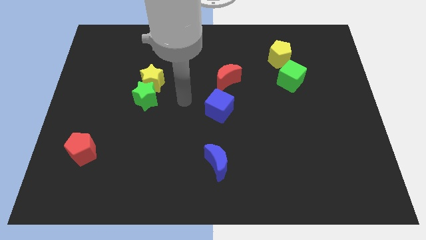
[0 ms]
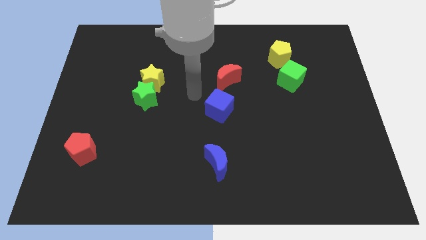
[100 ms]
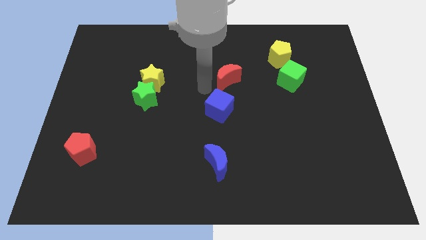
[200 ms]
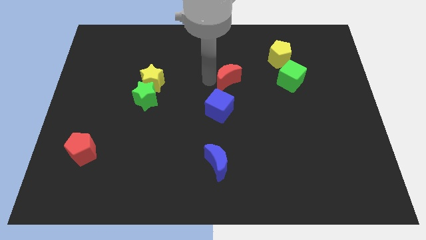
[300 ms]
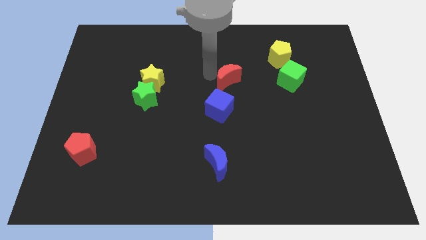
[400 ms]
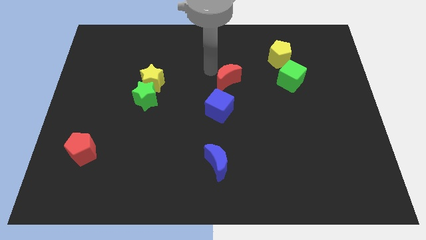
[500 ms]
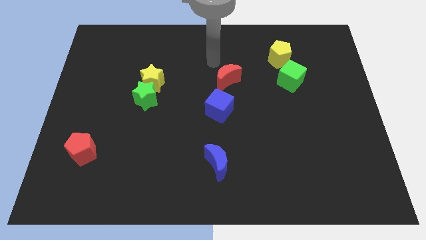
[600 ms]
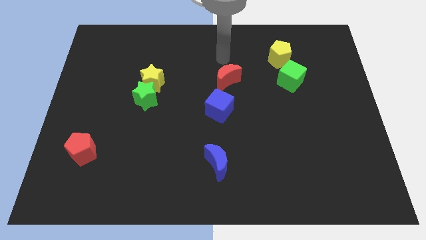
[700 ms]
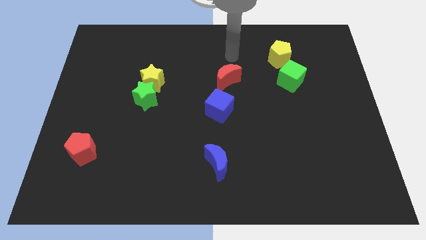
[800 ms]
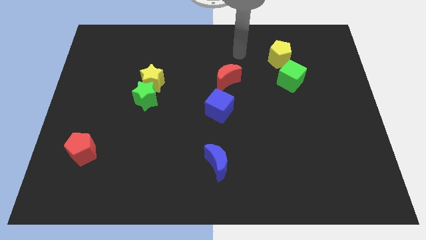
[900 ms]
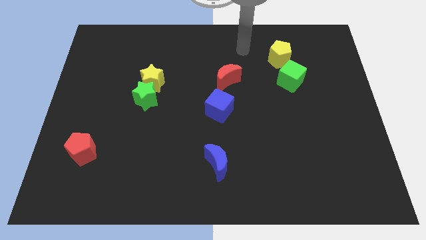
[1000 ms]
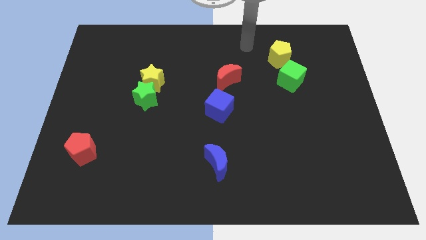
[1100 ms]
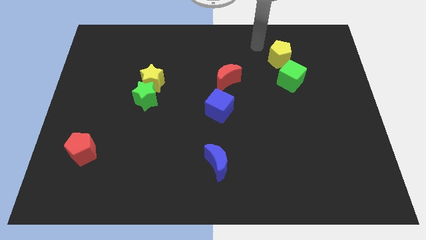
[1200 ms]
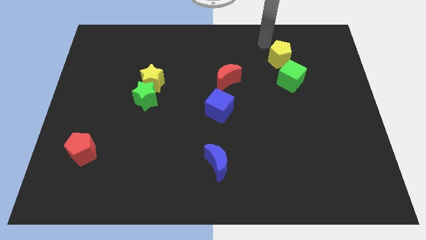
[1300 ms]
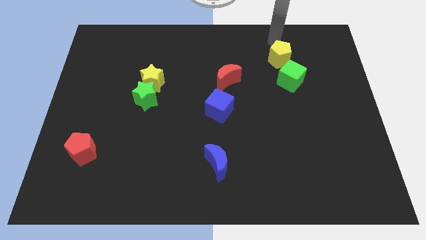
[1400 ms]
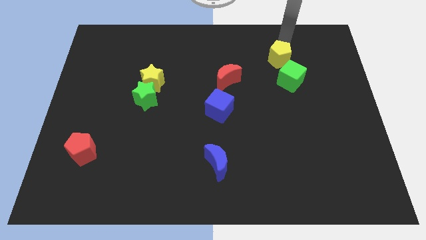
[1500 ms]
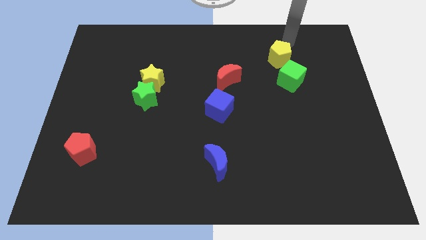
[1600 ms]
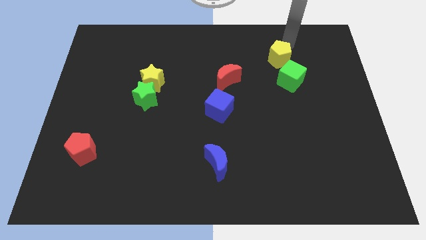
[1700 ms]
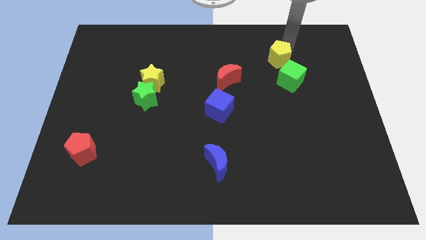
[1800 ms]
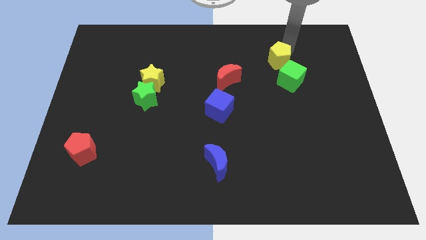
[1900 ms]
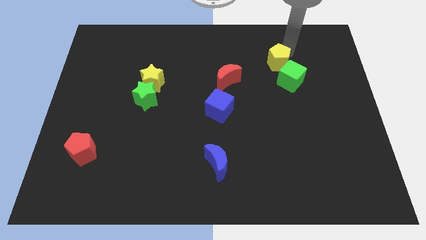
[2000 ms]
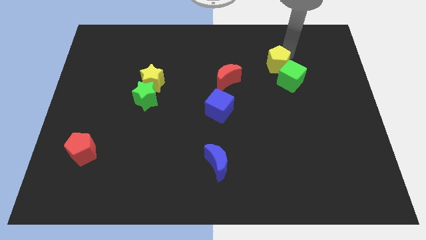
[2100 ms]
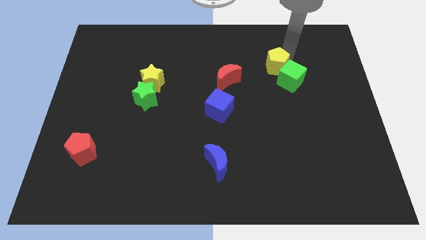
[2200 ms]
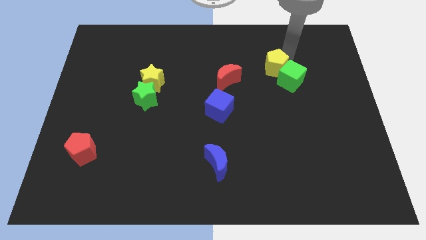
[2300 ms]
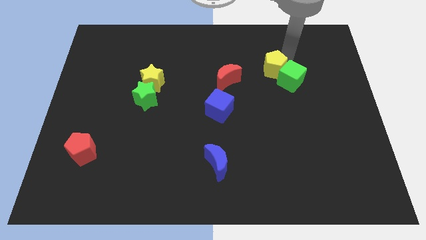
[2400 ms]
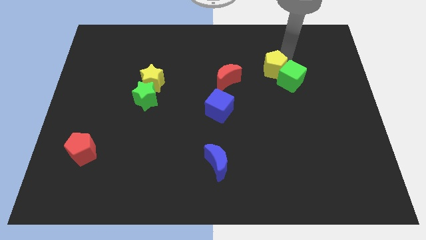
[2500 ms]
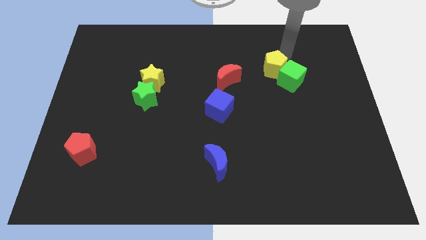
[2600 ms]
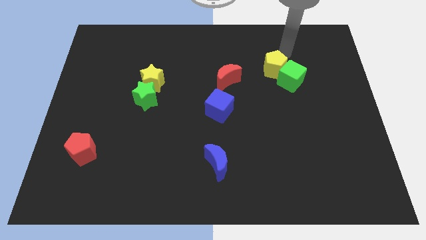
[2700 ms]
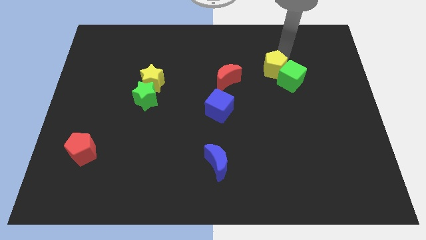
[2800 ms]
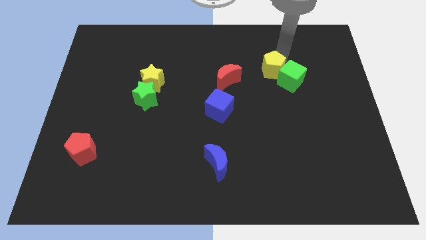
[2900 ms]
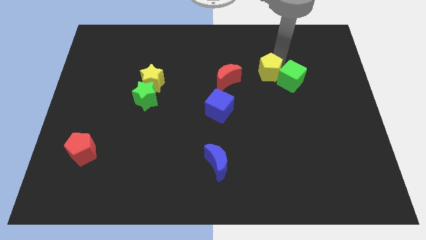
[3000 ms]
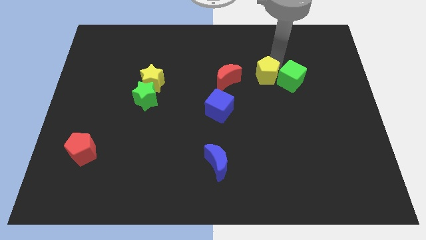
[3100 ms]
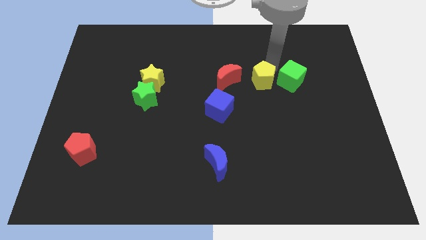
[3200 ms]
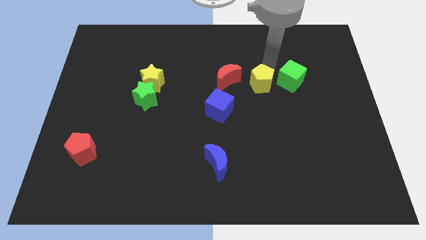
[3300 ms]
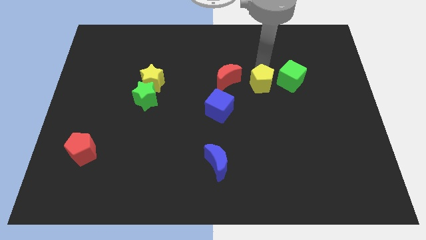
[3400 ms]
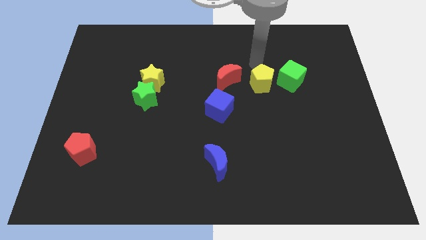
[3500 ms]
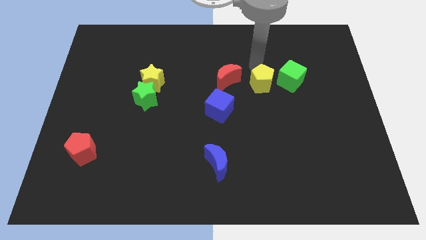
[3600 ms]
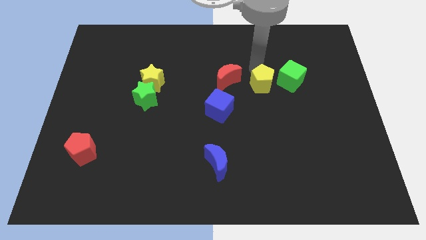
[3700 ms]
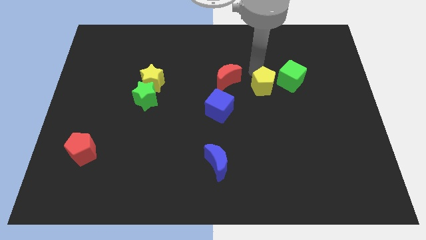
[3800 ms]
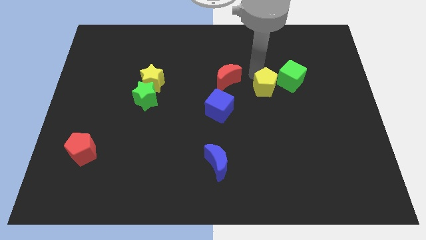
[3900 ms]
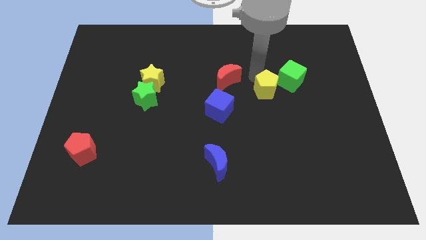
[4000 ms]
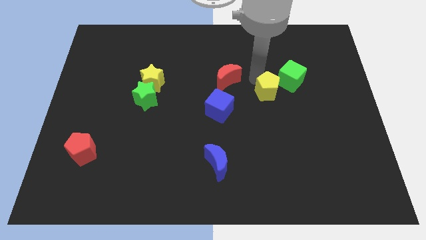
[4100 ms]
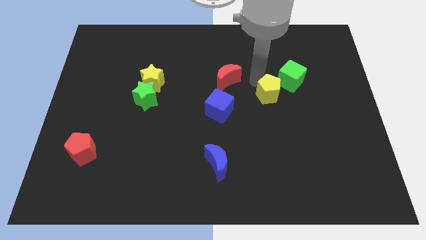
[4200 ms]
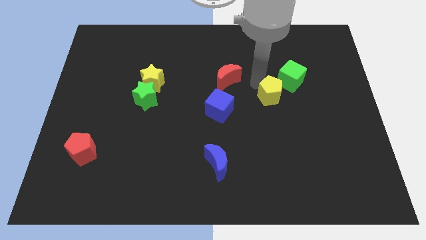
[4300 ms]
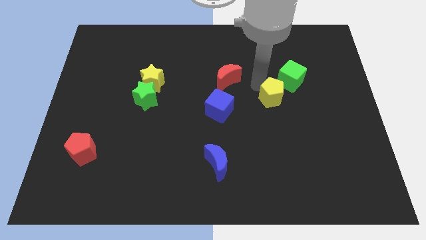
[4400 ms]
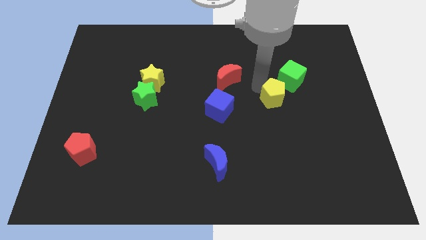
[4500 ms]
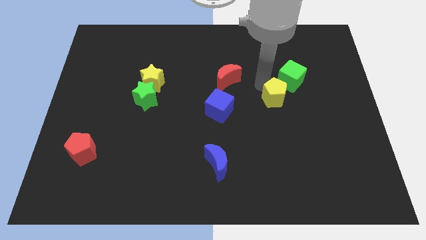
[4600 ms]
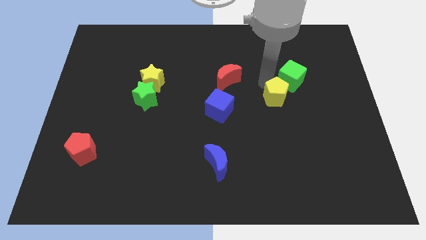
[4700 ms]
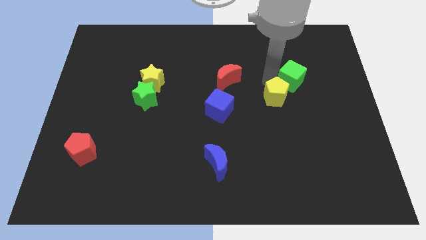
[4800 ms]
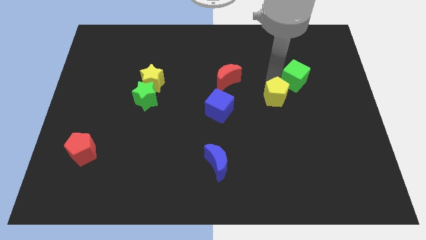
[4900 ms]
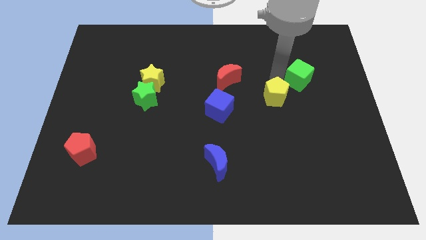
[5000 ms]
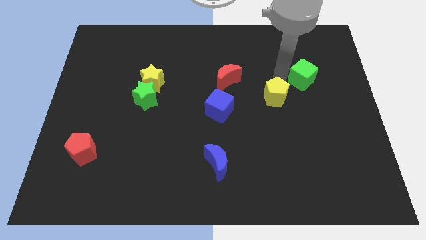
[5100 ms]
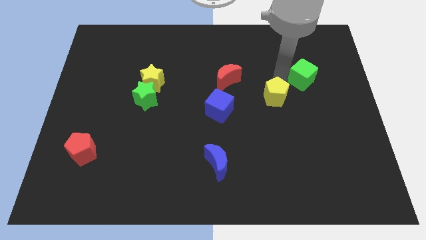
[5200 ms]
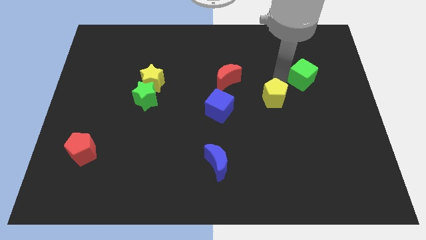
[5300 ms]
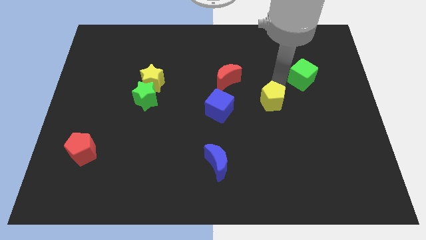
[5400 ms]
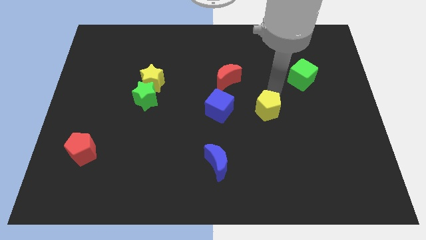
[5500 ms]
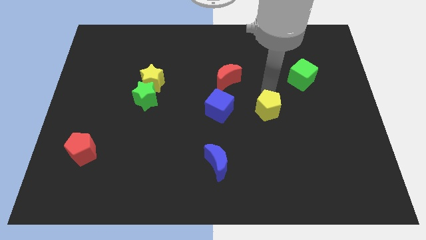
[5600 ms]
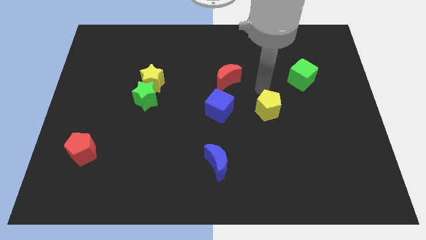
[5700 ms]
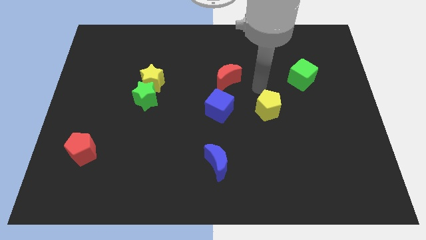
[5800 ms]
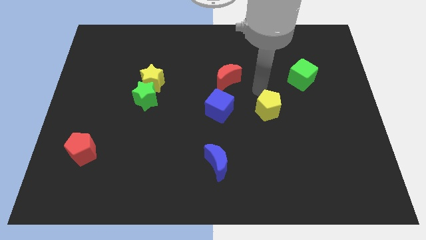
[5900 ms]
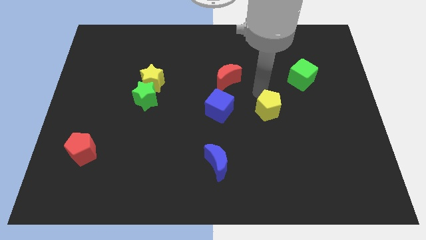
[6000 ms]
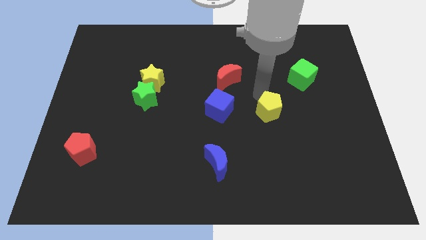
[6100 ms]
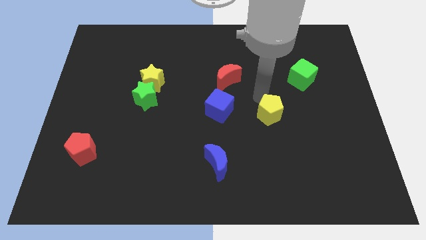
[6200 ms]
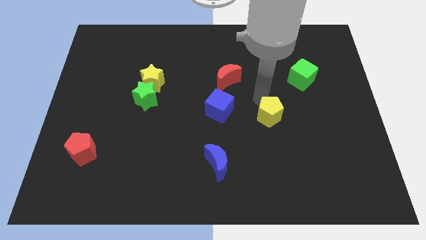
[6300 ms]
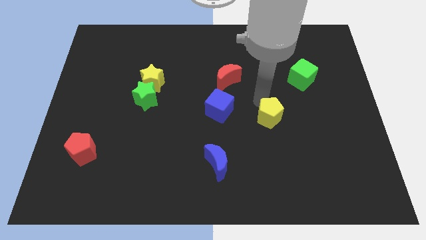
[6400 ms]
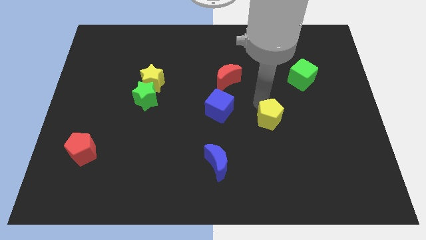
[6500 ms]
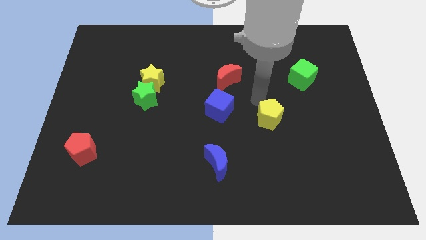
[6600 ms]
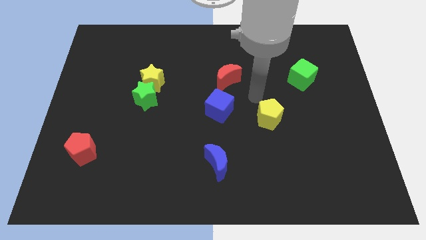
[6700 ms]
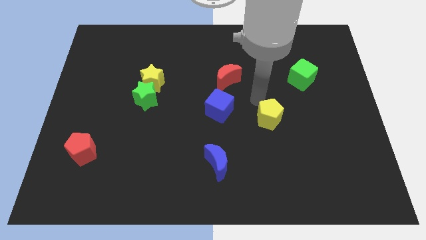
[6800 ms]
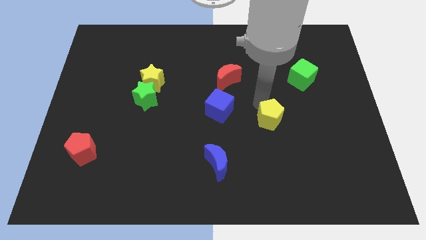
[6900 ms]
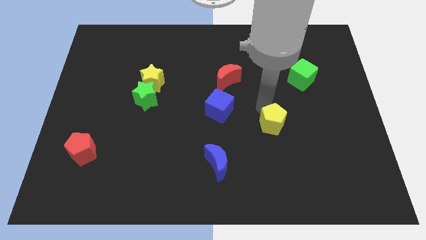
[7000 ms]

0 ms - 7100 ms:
push the yellow pentagon down

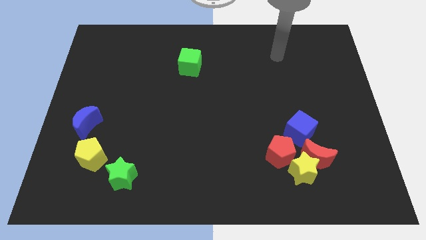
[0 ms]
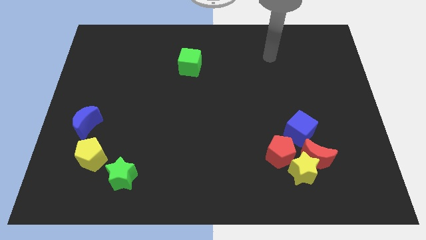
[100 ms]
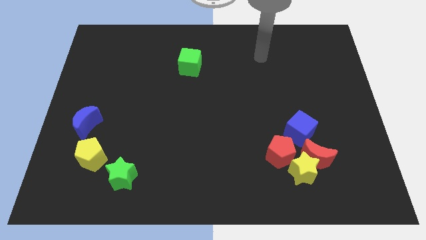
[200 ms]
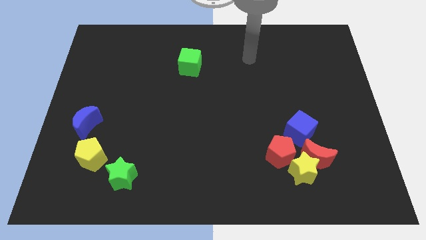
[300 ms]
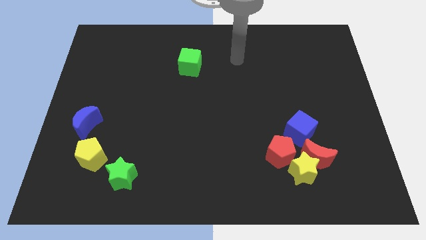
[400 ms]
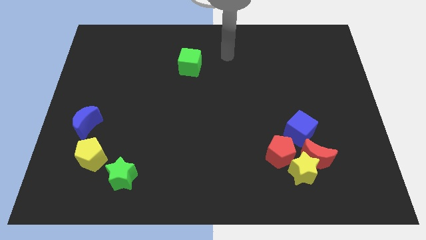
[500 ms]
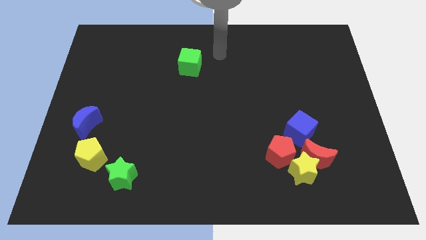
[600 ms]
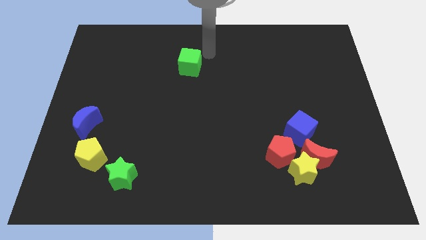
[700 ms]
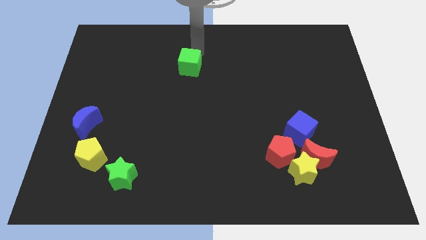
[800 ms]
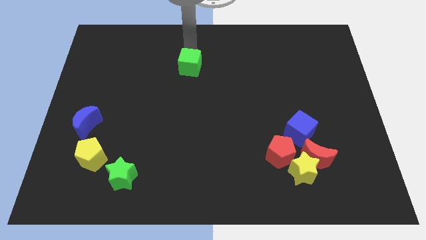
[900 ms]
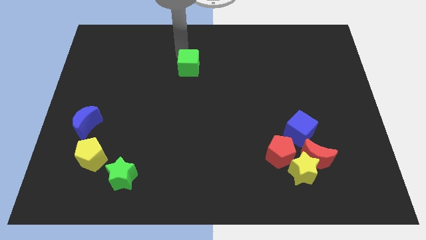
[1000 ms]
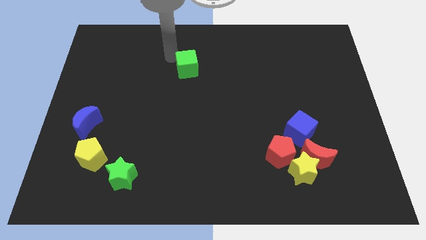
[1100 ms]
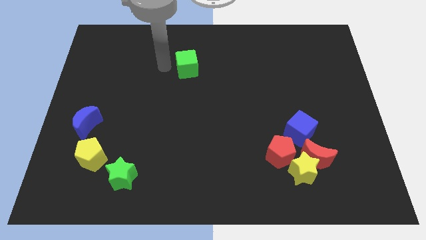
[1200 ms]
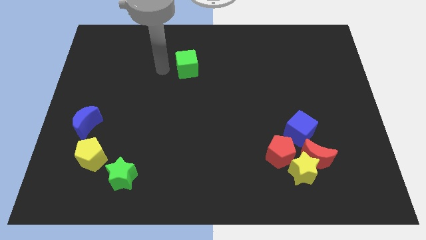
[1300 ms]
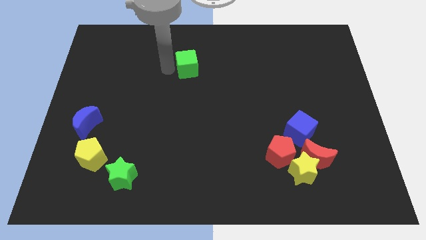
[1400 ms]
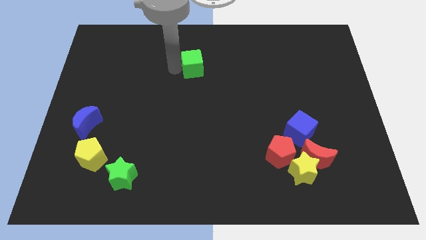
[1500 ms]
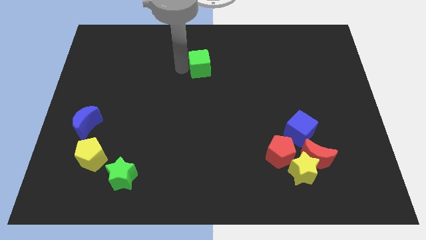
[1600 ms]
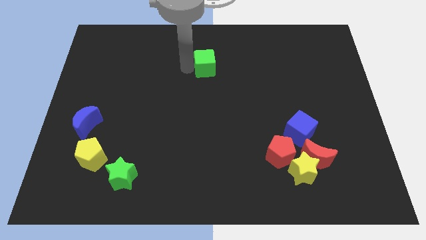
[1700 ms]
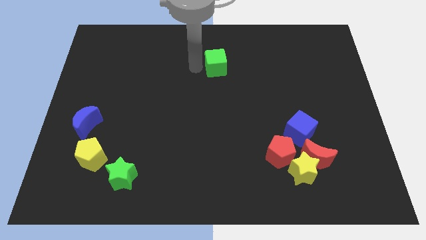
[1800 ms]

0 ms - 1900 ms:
slightly slide the green cube right
